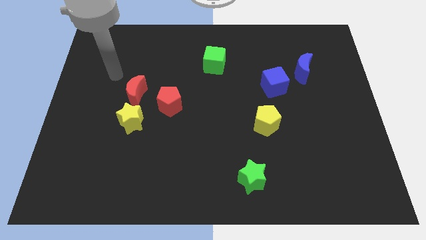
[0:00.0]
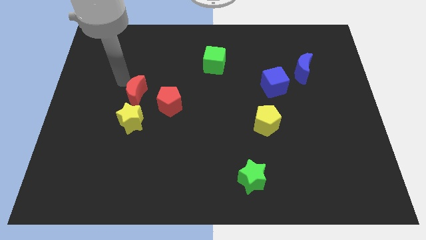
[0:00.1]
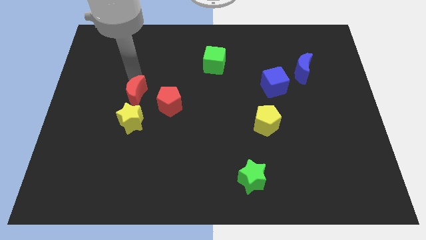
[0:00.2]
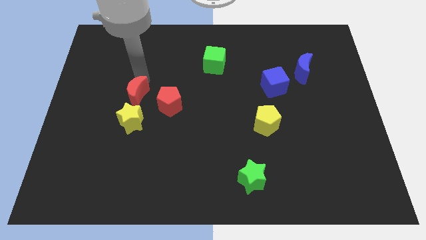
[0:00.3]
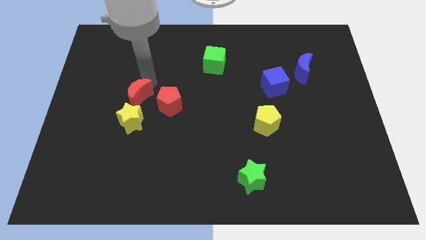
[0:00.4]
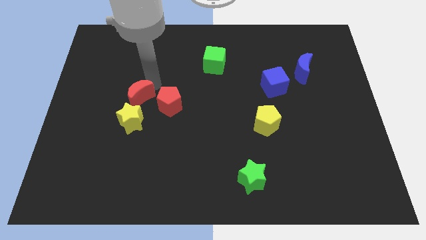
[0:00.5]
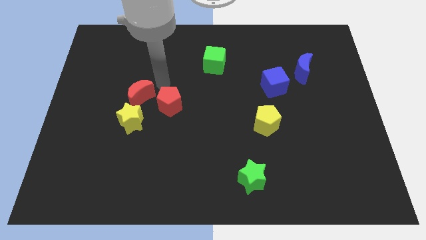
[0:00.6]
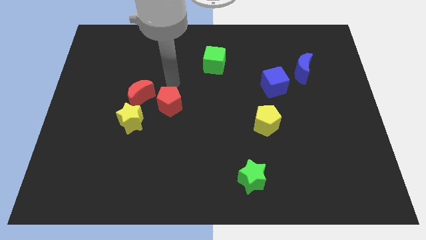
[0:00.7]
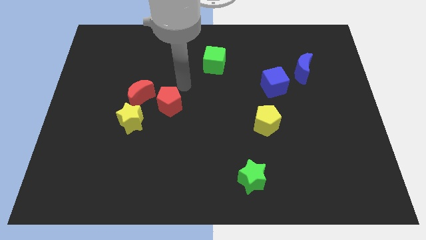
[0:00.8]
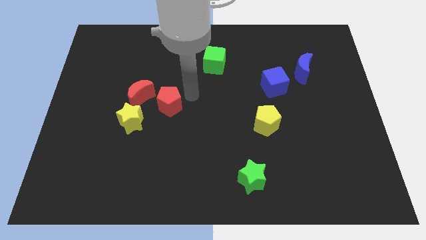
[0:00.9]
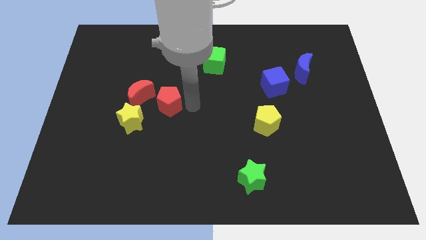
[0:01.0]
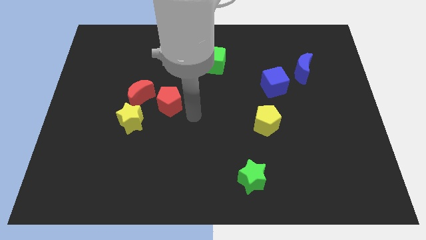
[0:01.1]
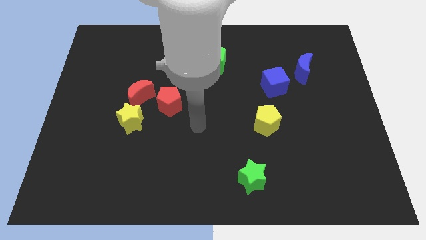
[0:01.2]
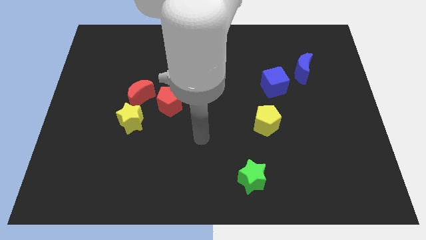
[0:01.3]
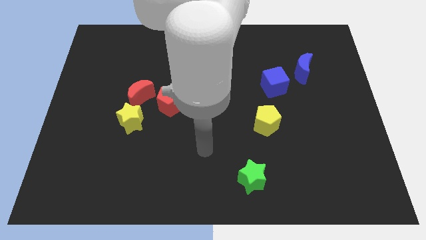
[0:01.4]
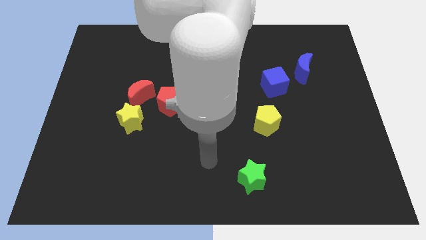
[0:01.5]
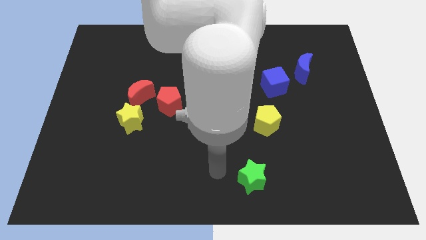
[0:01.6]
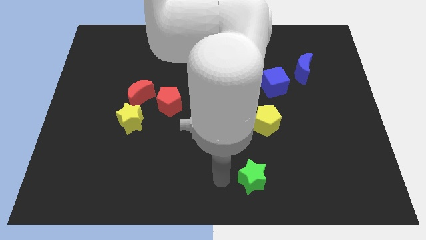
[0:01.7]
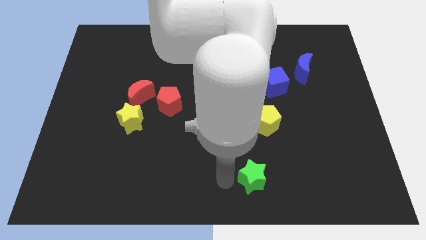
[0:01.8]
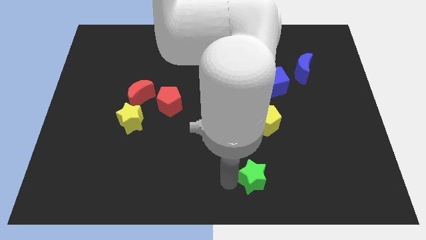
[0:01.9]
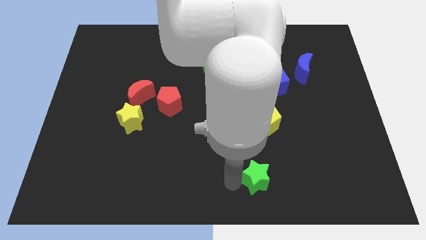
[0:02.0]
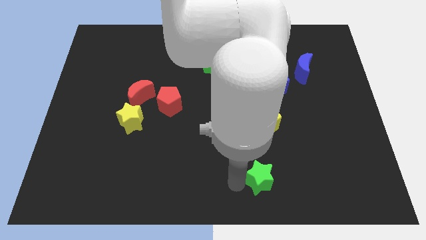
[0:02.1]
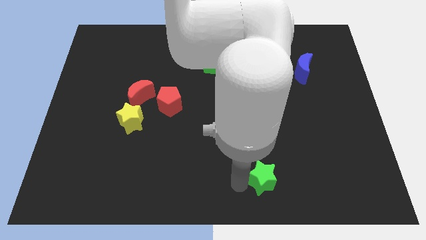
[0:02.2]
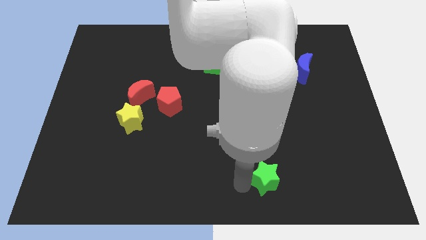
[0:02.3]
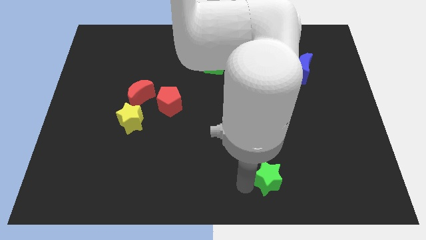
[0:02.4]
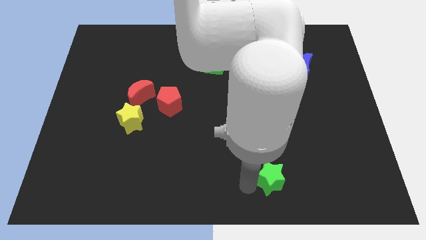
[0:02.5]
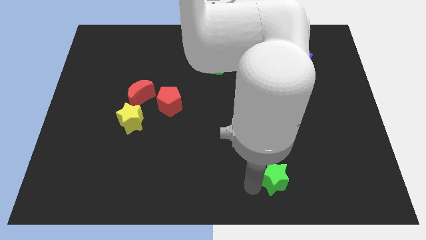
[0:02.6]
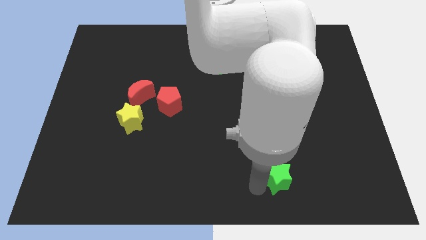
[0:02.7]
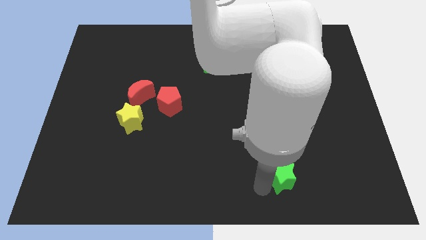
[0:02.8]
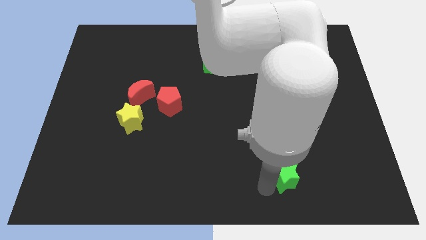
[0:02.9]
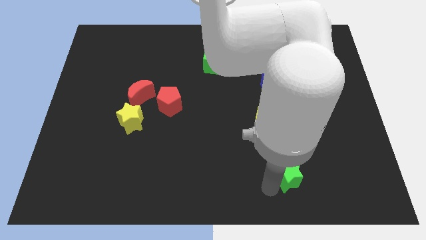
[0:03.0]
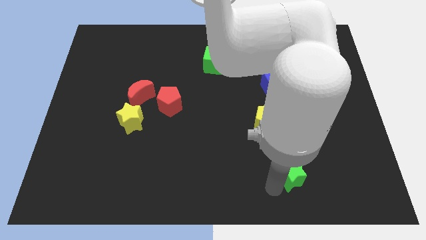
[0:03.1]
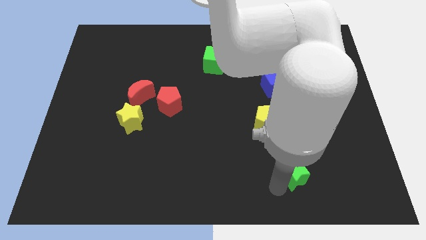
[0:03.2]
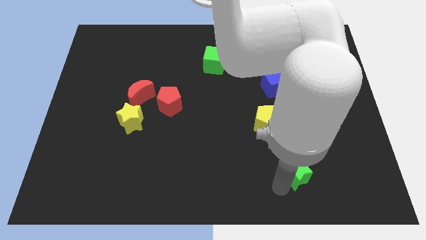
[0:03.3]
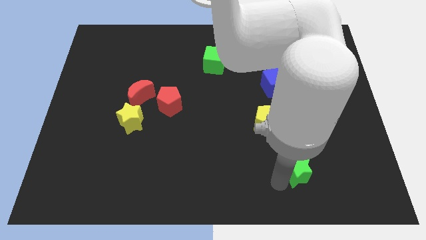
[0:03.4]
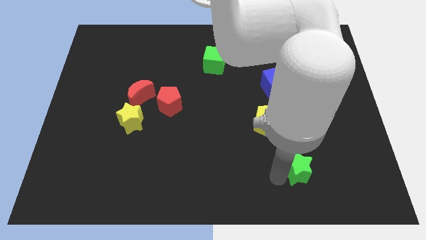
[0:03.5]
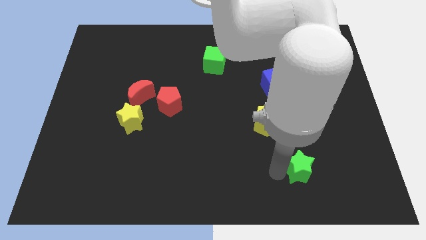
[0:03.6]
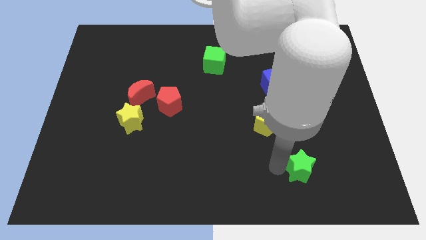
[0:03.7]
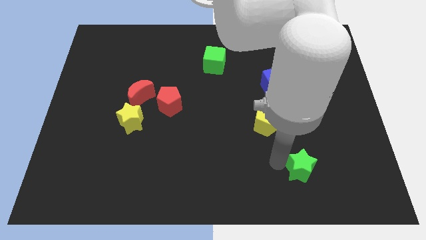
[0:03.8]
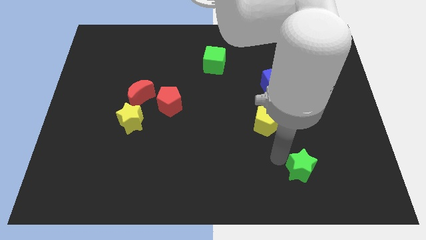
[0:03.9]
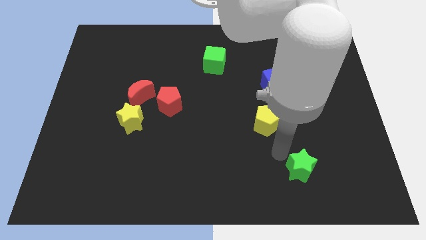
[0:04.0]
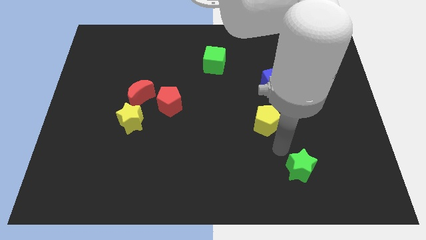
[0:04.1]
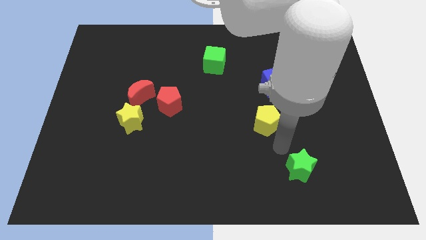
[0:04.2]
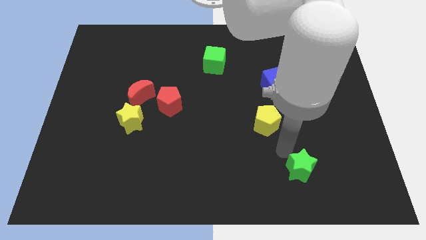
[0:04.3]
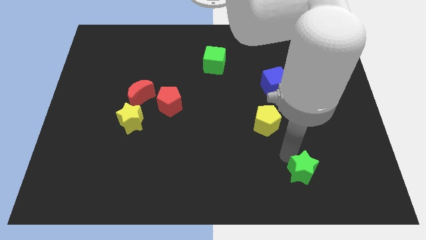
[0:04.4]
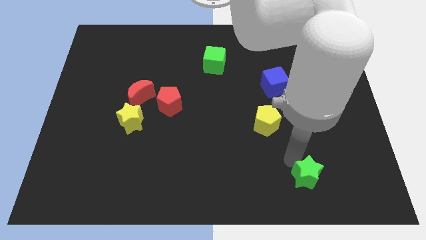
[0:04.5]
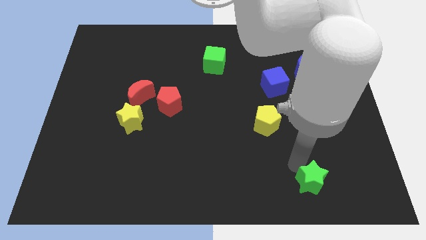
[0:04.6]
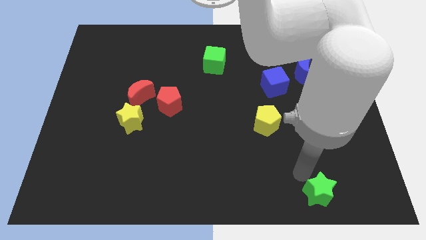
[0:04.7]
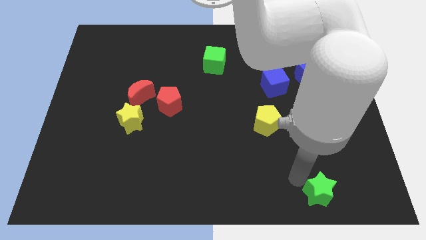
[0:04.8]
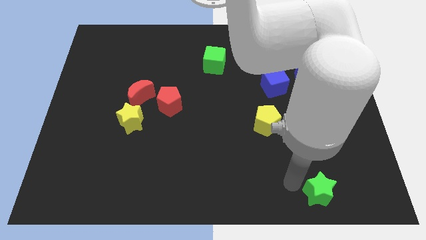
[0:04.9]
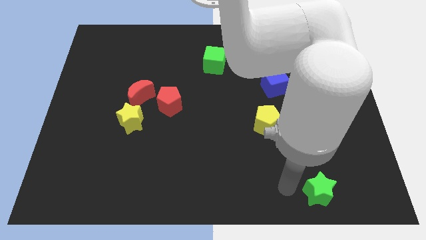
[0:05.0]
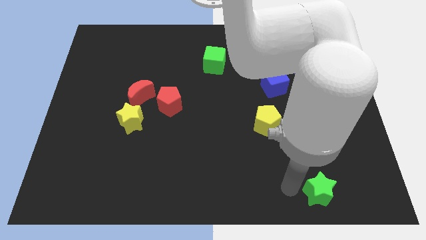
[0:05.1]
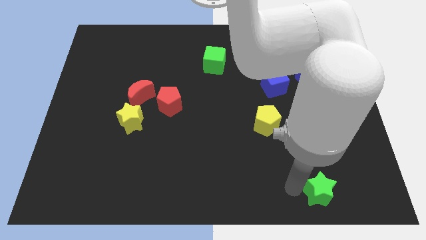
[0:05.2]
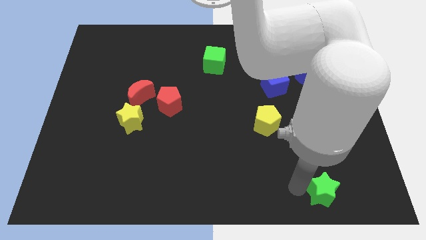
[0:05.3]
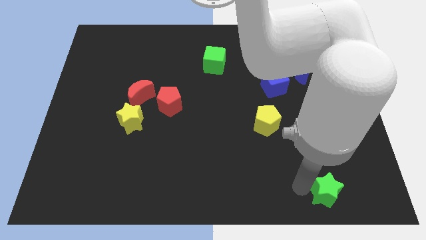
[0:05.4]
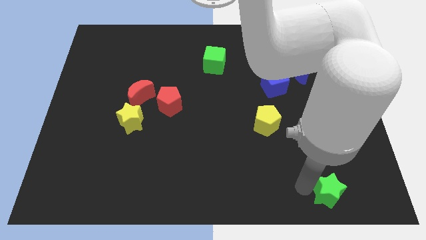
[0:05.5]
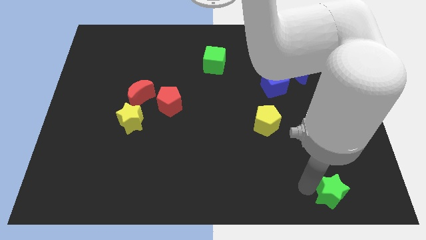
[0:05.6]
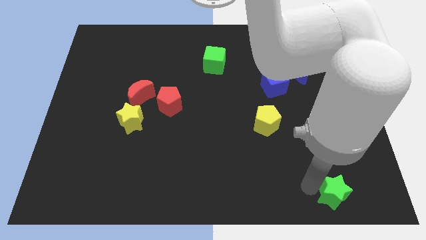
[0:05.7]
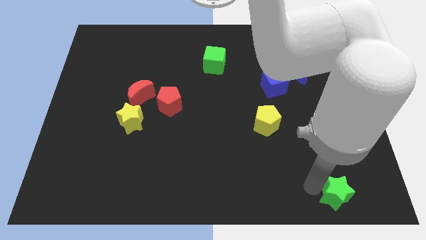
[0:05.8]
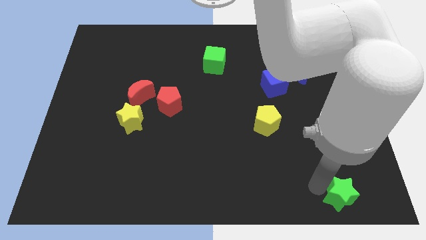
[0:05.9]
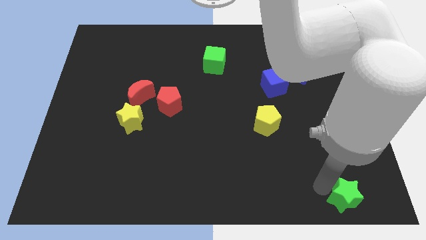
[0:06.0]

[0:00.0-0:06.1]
move the green star to the bottom right of the board

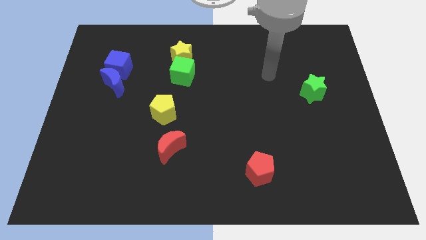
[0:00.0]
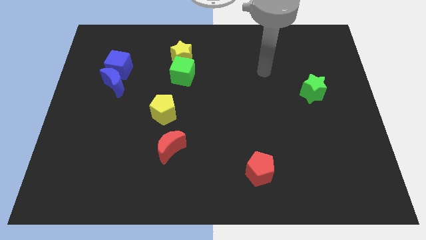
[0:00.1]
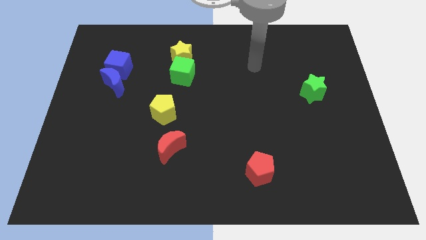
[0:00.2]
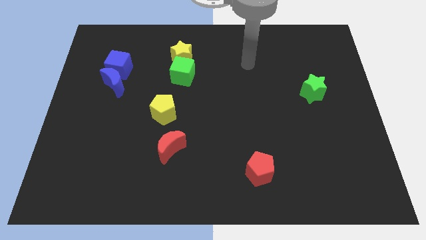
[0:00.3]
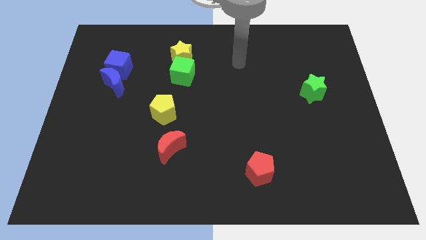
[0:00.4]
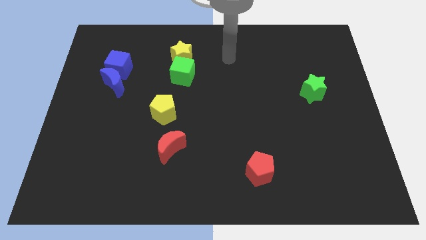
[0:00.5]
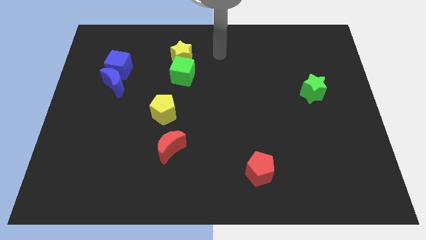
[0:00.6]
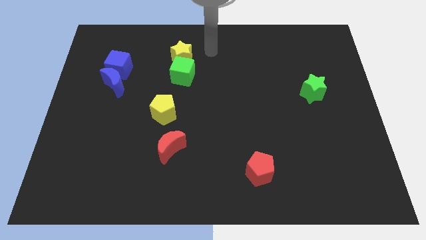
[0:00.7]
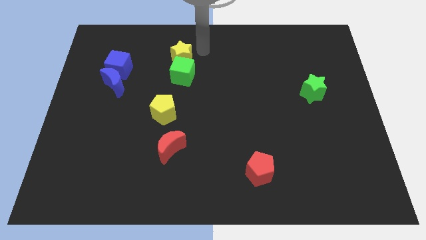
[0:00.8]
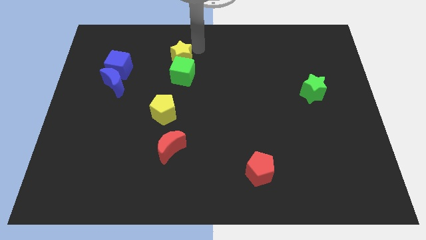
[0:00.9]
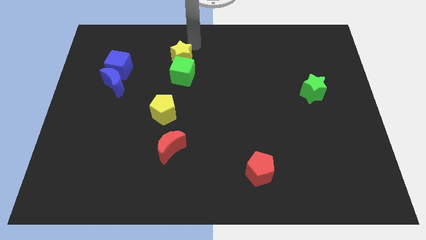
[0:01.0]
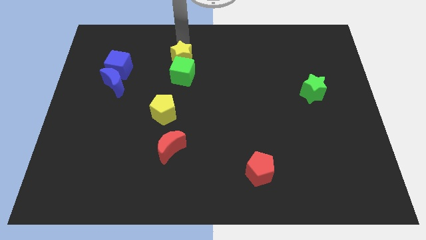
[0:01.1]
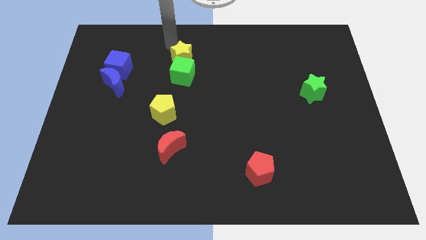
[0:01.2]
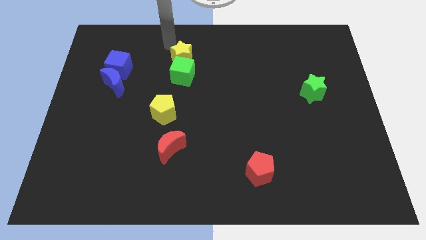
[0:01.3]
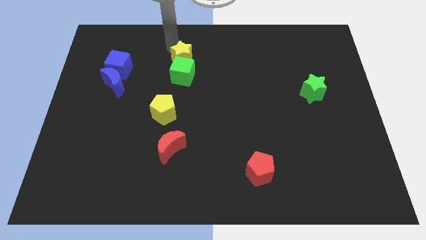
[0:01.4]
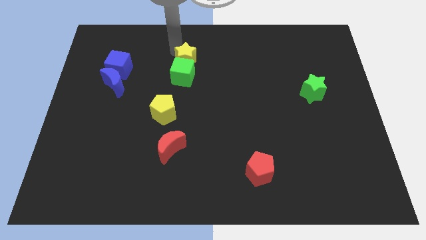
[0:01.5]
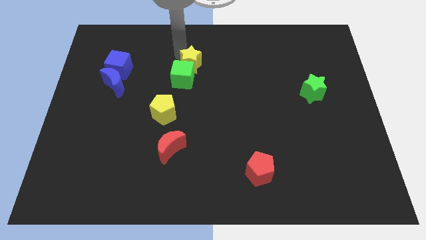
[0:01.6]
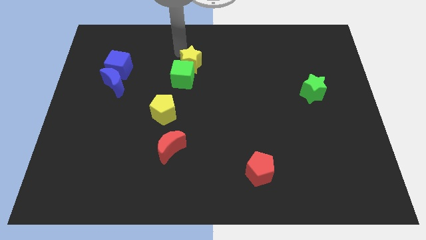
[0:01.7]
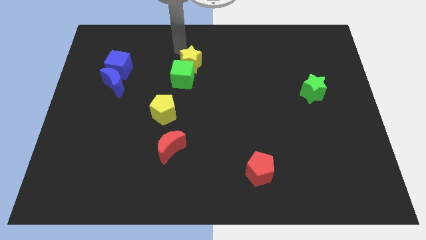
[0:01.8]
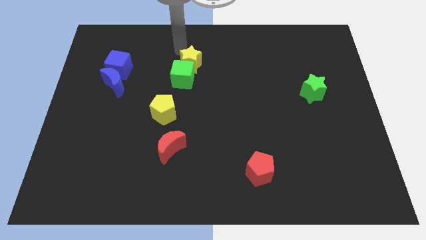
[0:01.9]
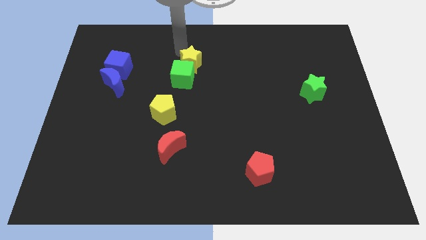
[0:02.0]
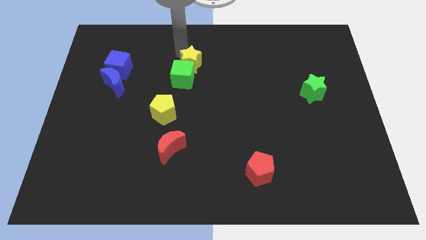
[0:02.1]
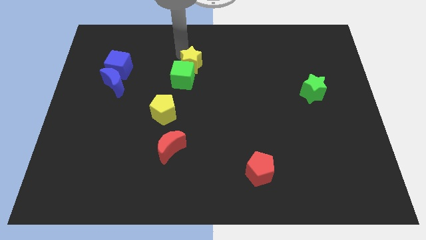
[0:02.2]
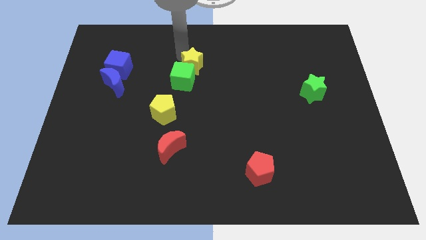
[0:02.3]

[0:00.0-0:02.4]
put the yellow star to the center of the board
